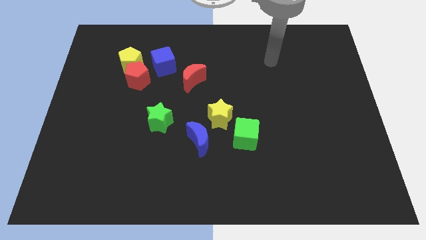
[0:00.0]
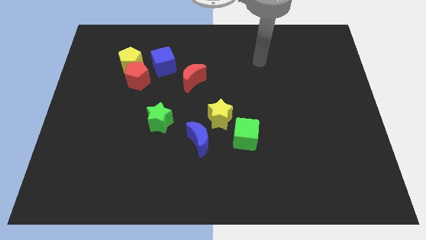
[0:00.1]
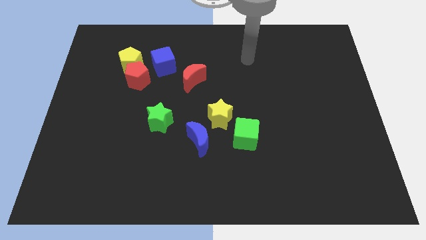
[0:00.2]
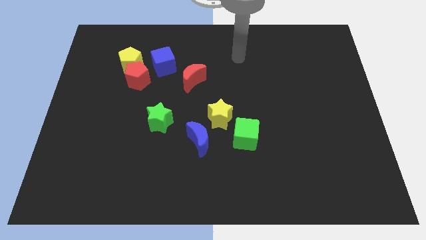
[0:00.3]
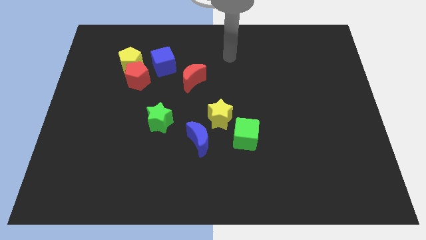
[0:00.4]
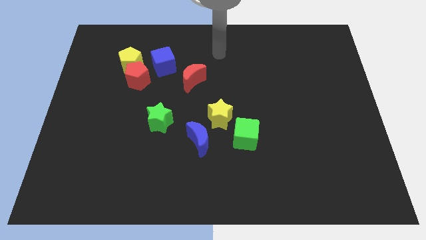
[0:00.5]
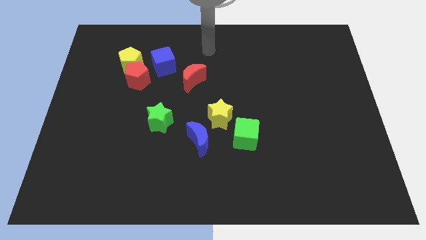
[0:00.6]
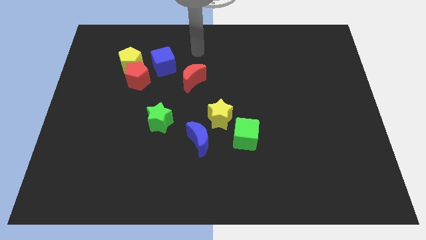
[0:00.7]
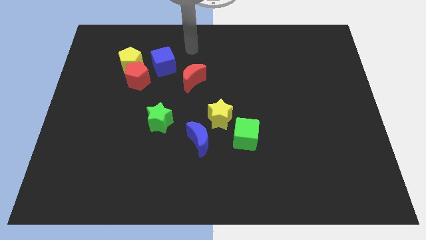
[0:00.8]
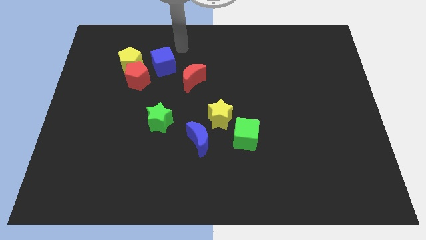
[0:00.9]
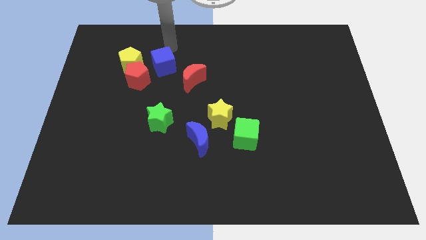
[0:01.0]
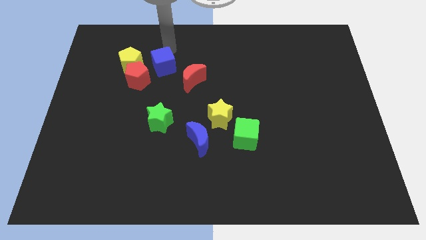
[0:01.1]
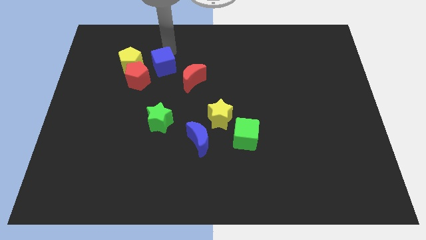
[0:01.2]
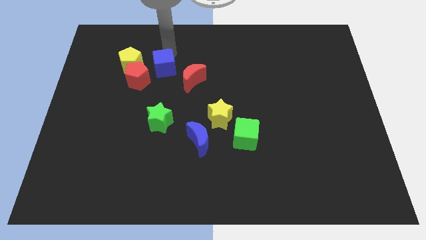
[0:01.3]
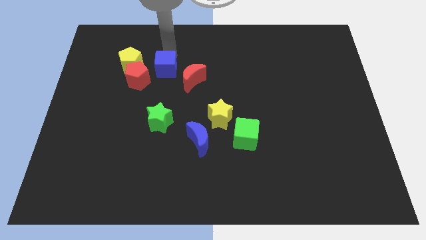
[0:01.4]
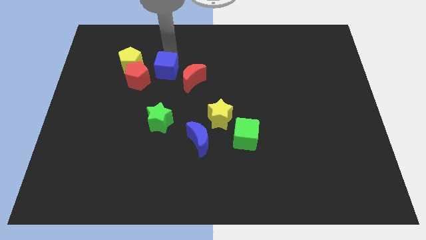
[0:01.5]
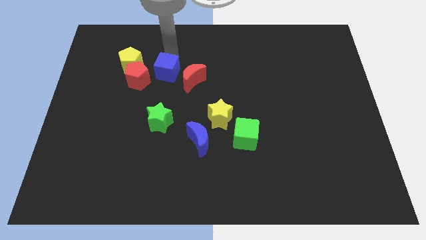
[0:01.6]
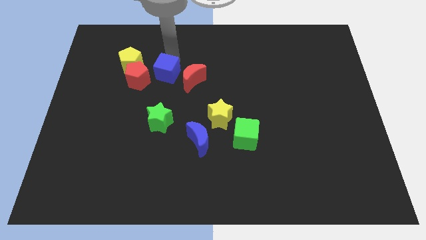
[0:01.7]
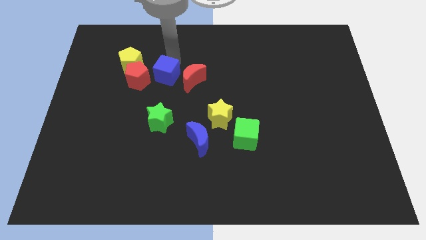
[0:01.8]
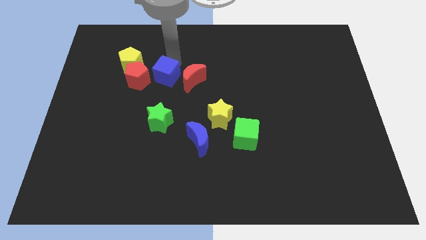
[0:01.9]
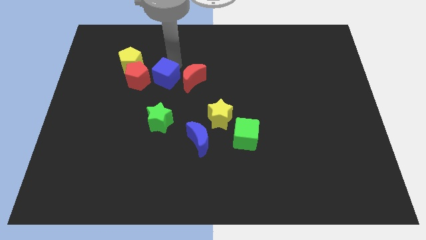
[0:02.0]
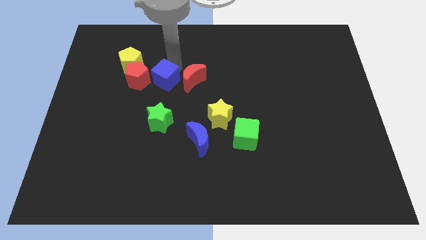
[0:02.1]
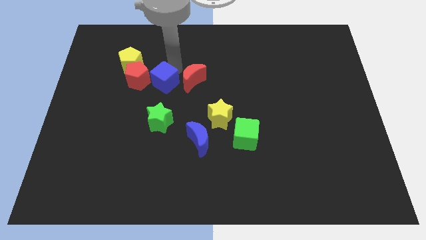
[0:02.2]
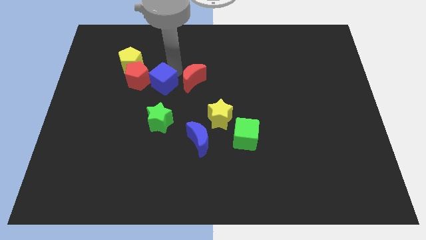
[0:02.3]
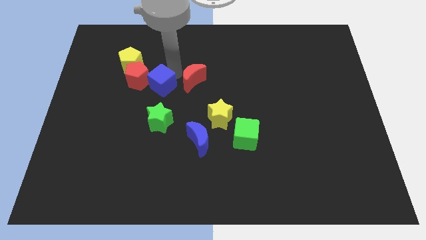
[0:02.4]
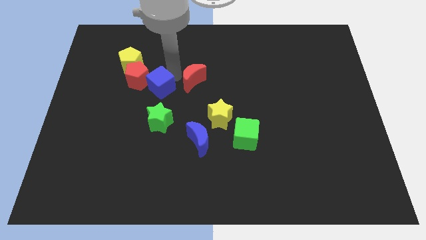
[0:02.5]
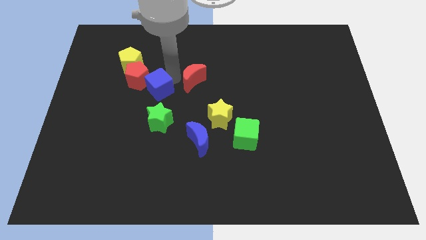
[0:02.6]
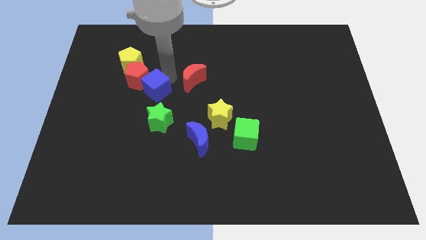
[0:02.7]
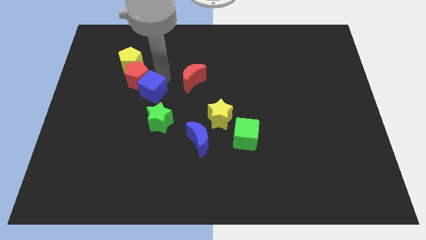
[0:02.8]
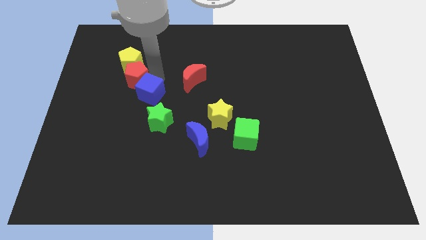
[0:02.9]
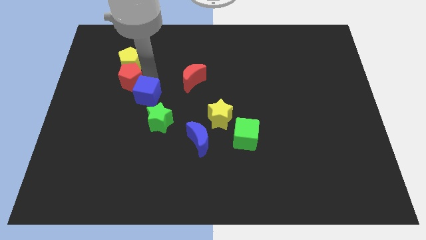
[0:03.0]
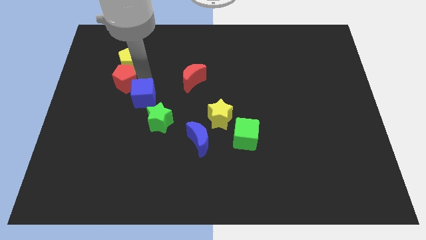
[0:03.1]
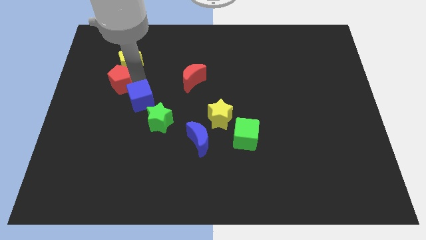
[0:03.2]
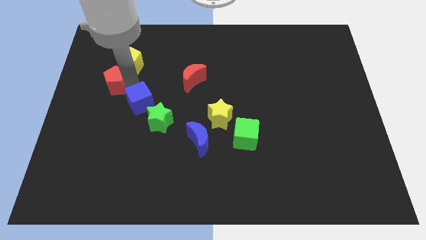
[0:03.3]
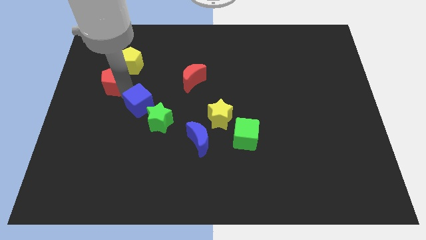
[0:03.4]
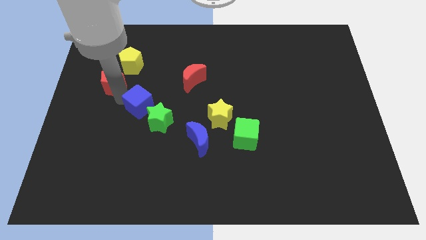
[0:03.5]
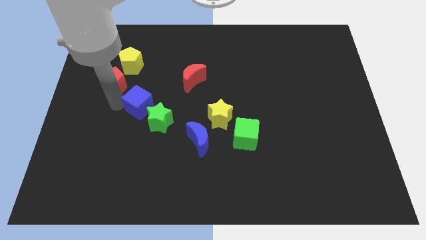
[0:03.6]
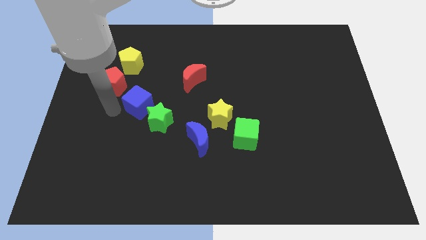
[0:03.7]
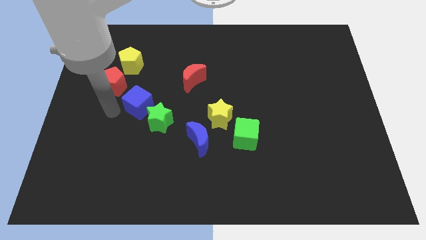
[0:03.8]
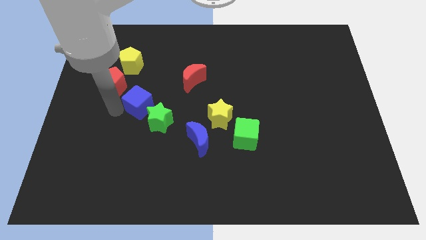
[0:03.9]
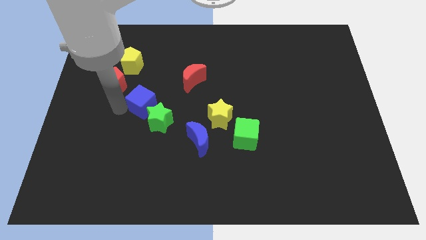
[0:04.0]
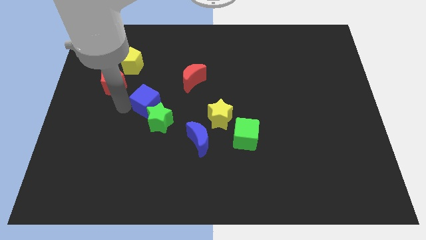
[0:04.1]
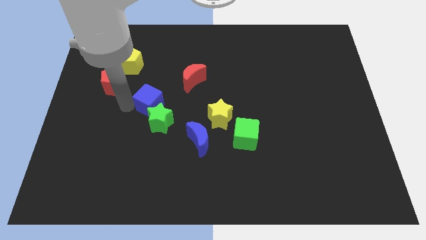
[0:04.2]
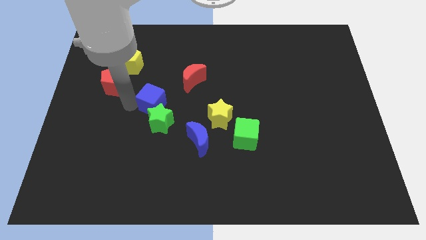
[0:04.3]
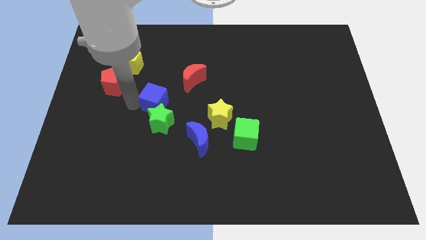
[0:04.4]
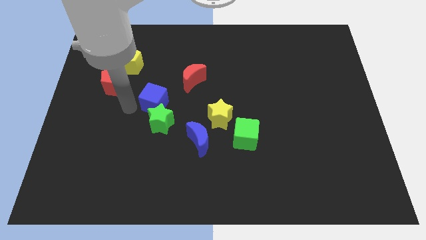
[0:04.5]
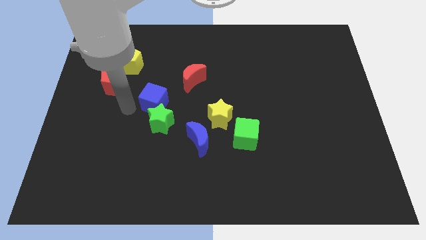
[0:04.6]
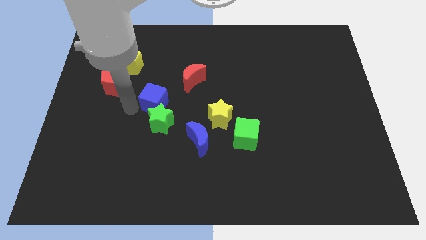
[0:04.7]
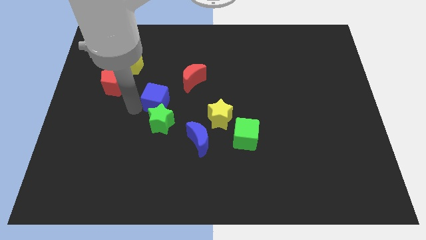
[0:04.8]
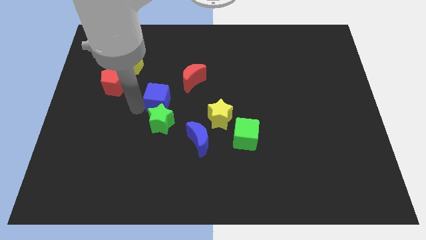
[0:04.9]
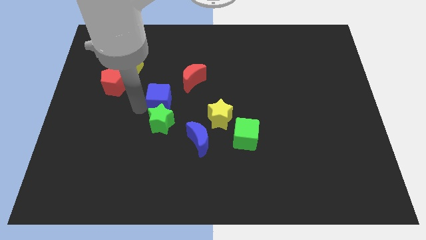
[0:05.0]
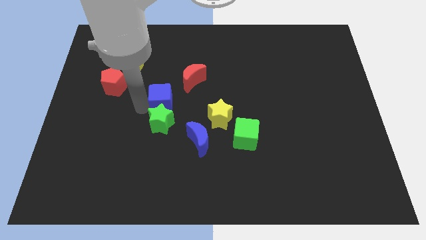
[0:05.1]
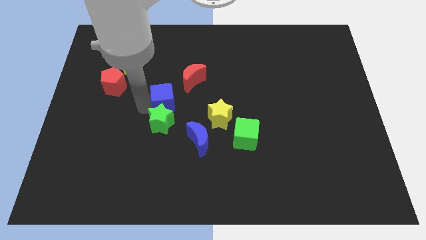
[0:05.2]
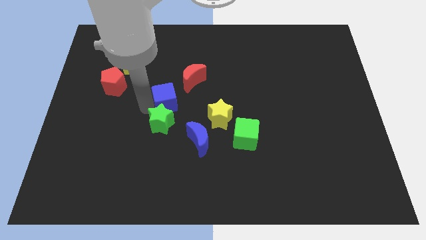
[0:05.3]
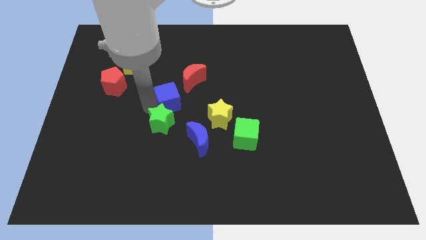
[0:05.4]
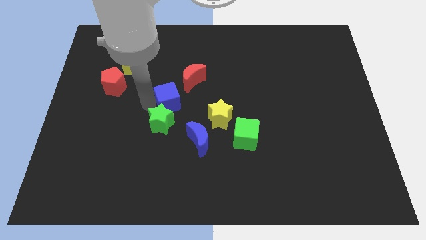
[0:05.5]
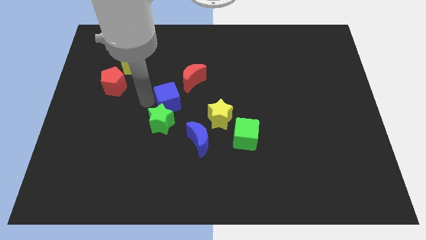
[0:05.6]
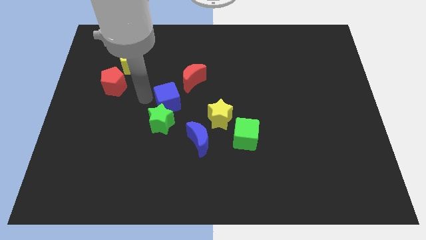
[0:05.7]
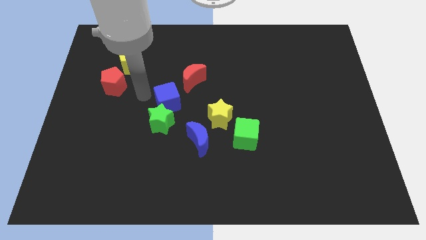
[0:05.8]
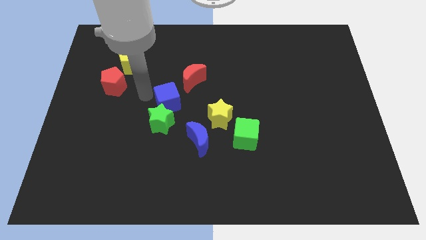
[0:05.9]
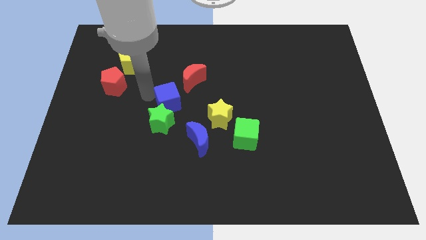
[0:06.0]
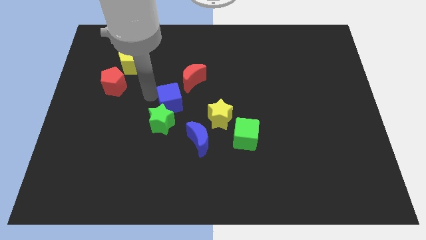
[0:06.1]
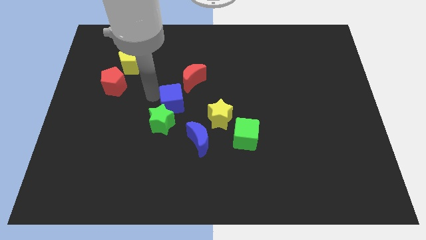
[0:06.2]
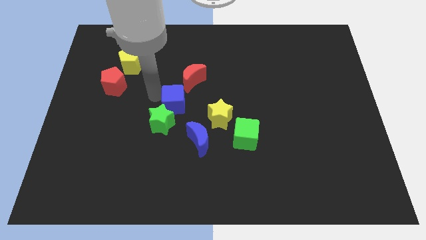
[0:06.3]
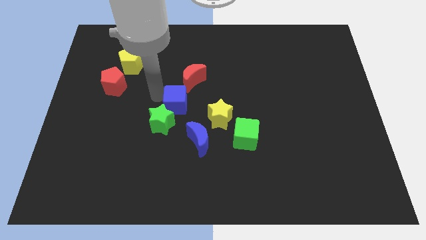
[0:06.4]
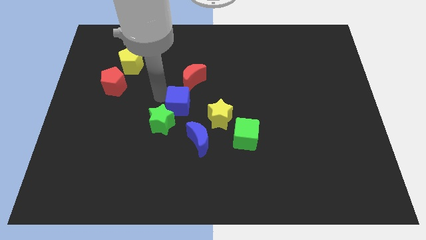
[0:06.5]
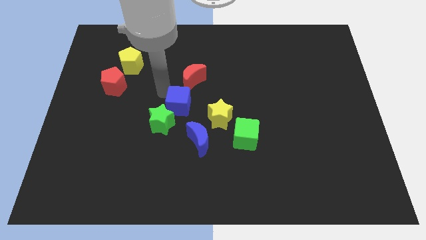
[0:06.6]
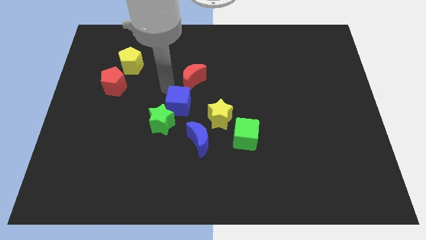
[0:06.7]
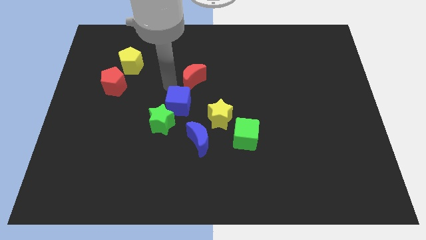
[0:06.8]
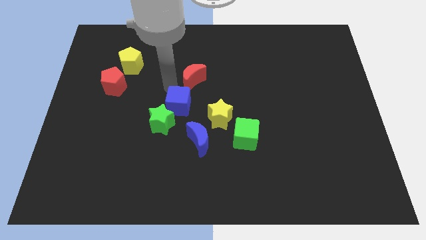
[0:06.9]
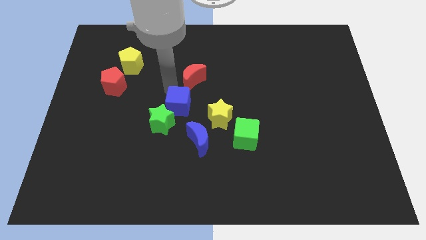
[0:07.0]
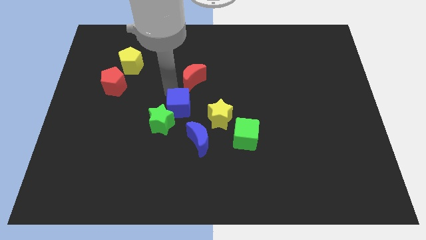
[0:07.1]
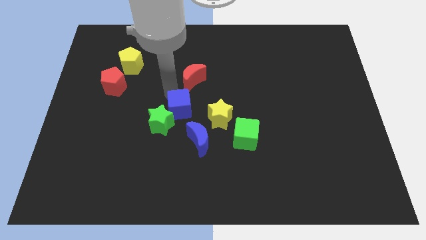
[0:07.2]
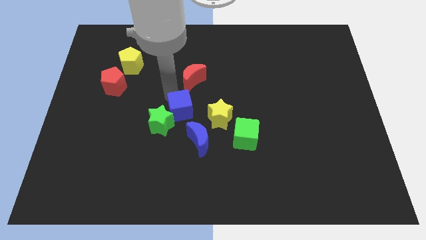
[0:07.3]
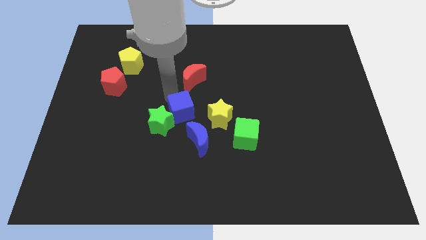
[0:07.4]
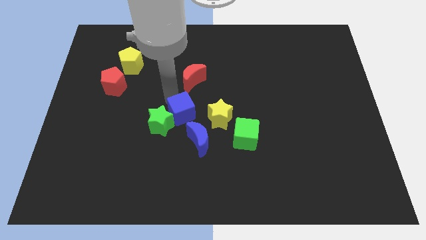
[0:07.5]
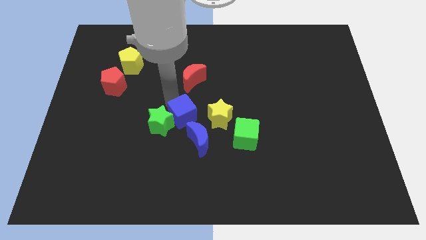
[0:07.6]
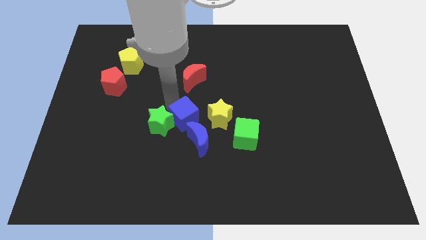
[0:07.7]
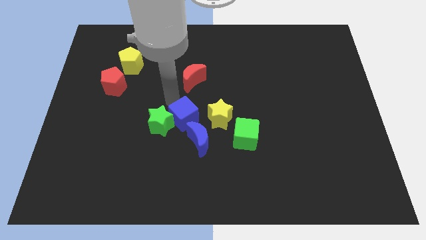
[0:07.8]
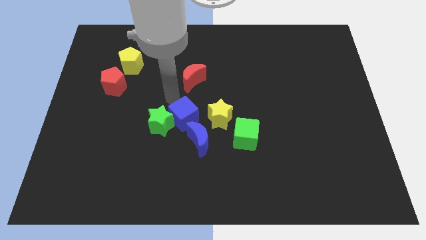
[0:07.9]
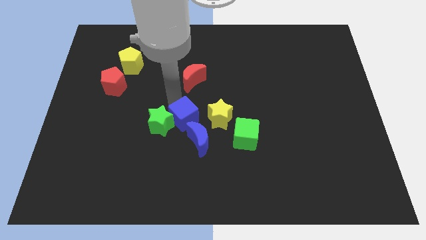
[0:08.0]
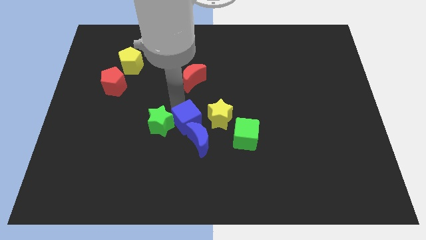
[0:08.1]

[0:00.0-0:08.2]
push the blue cube to the blue moon
